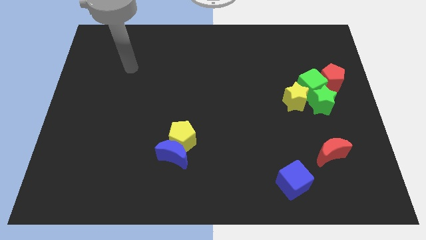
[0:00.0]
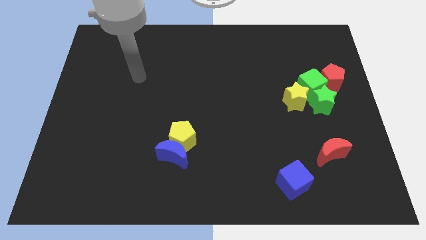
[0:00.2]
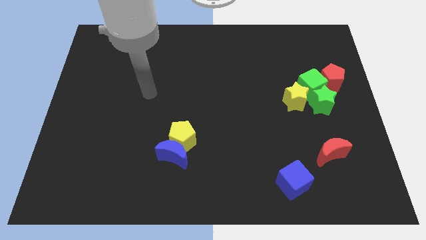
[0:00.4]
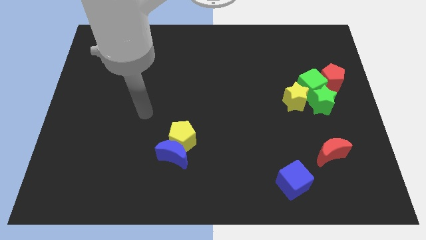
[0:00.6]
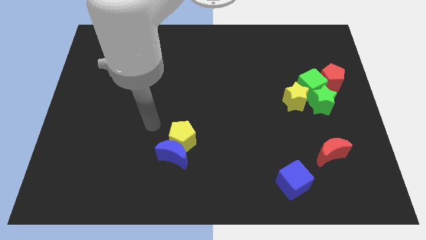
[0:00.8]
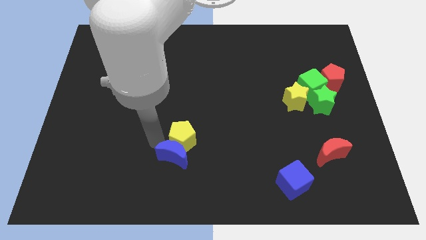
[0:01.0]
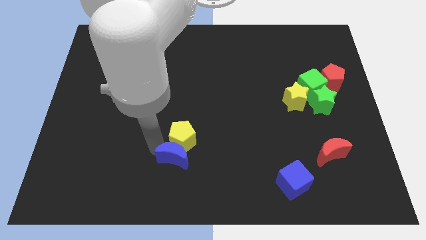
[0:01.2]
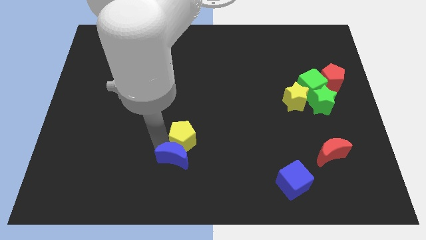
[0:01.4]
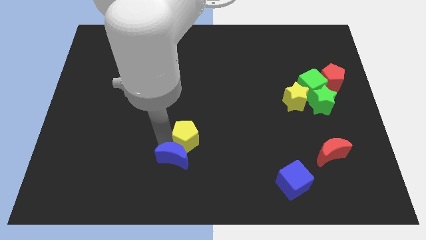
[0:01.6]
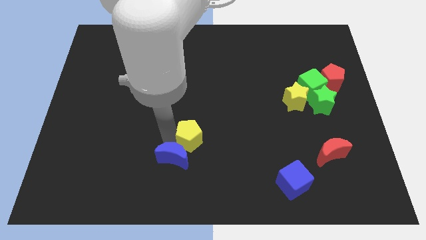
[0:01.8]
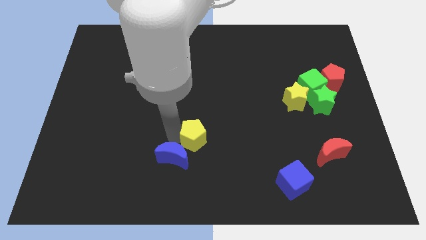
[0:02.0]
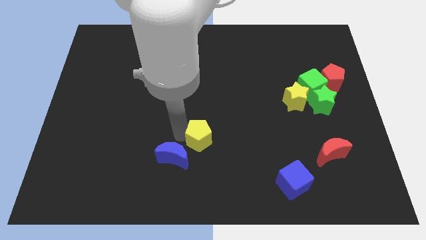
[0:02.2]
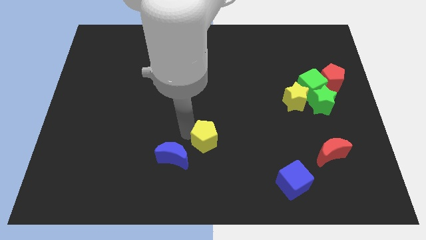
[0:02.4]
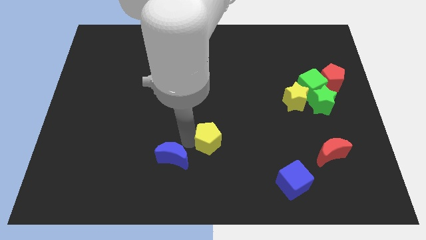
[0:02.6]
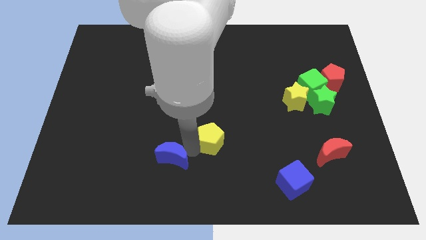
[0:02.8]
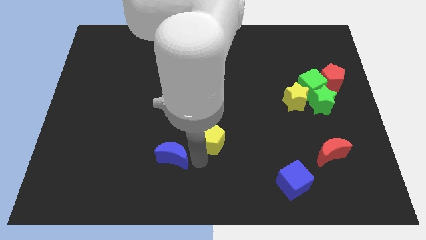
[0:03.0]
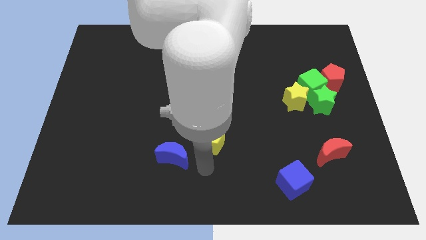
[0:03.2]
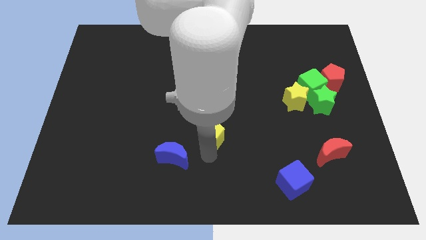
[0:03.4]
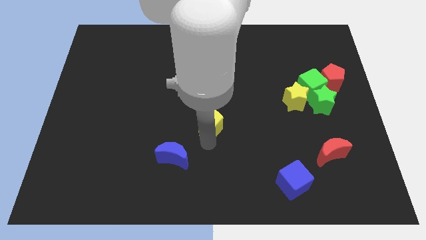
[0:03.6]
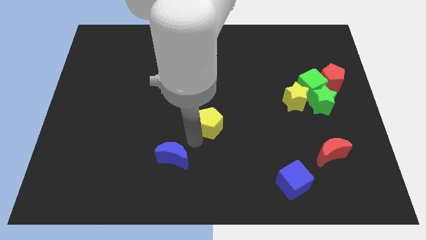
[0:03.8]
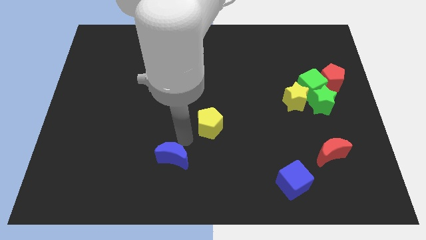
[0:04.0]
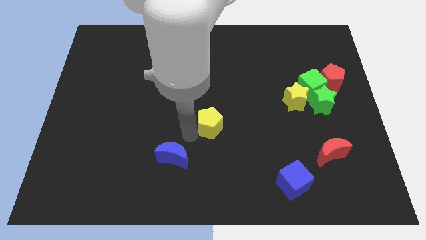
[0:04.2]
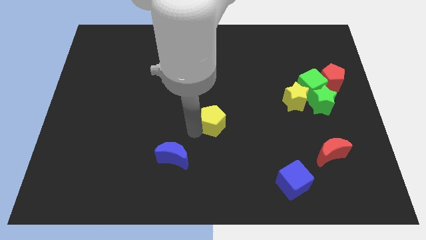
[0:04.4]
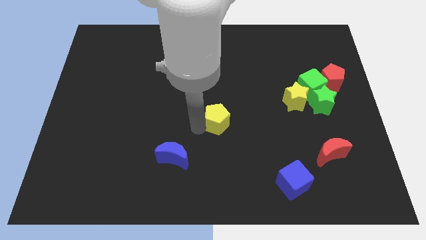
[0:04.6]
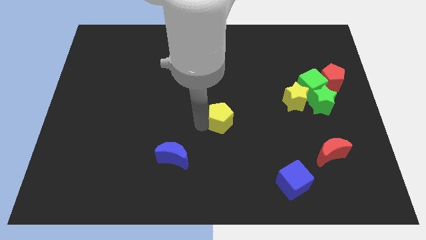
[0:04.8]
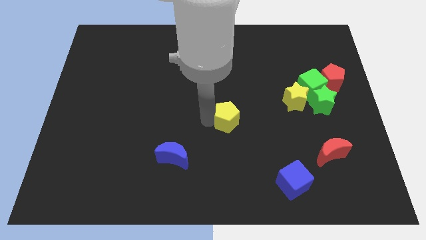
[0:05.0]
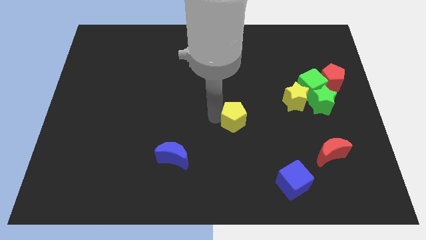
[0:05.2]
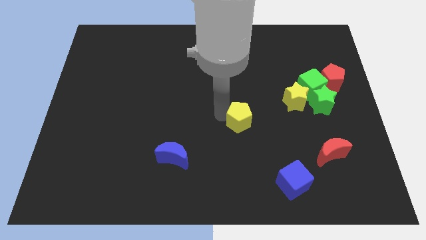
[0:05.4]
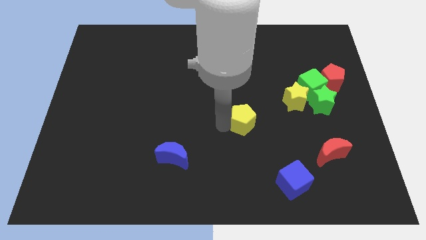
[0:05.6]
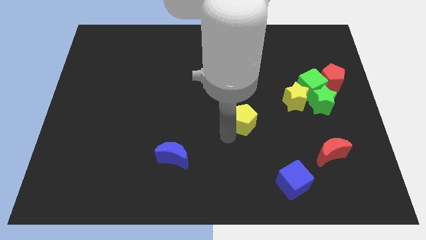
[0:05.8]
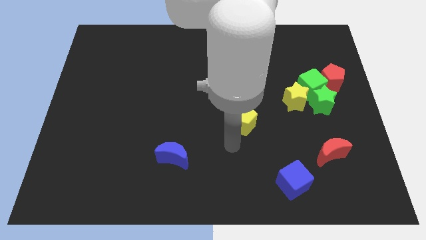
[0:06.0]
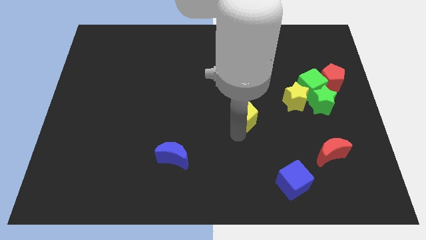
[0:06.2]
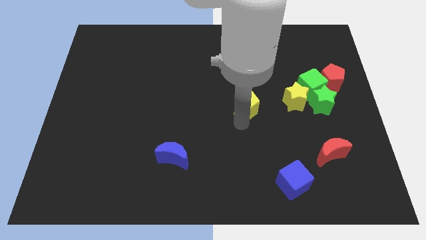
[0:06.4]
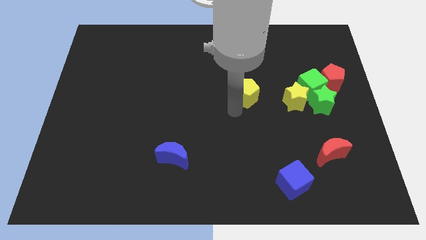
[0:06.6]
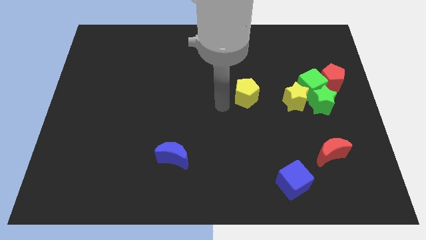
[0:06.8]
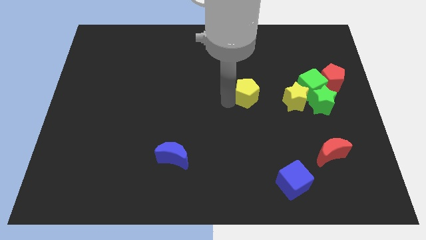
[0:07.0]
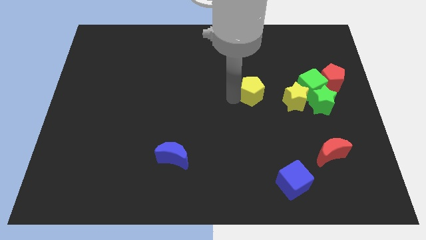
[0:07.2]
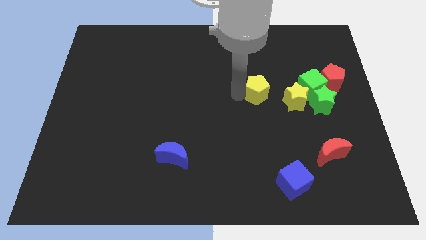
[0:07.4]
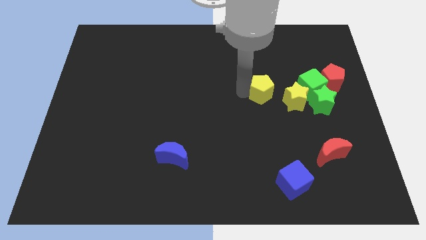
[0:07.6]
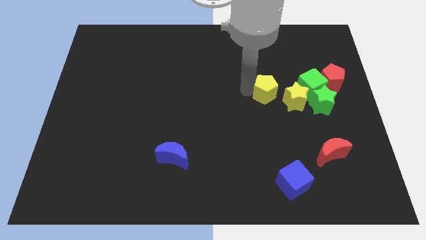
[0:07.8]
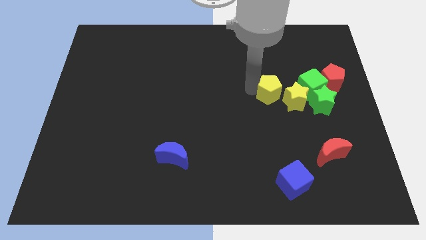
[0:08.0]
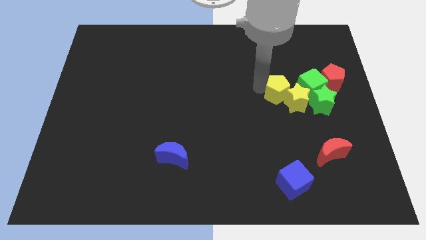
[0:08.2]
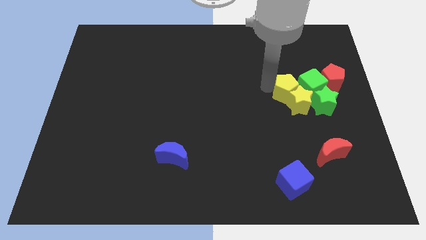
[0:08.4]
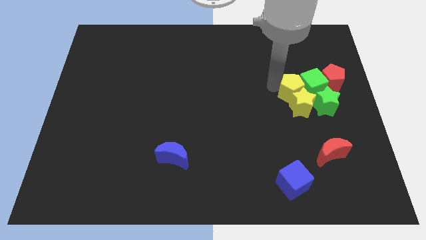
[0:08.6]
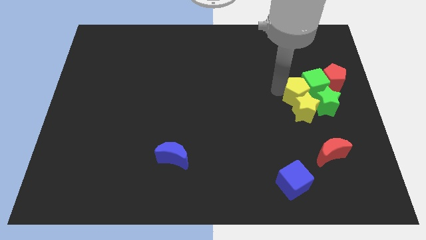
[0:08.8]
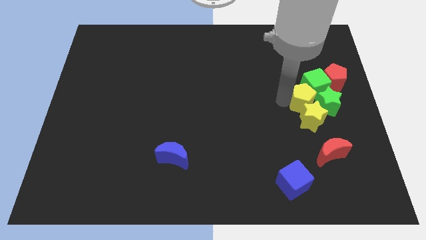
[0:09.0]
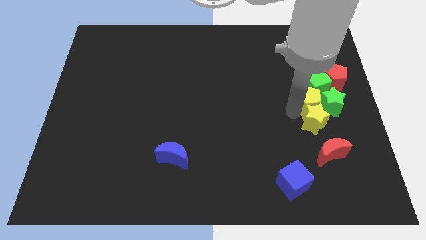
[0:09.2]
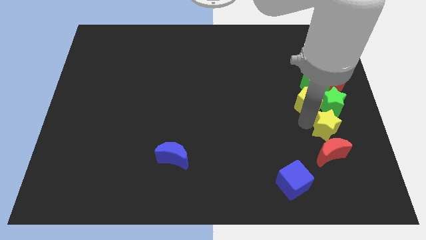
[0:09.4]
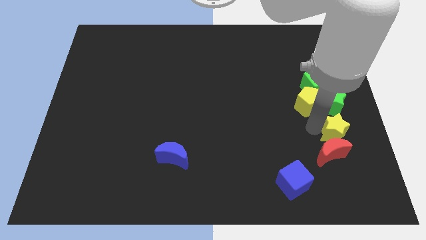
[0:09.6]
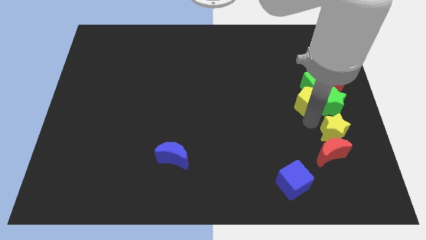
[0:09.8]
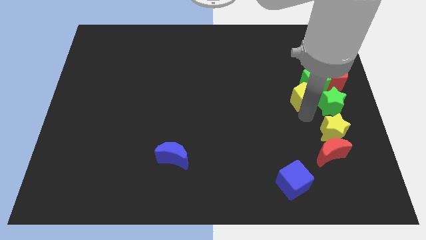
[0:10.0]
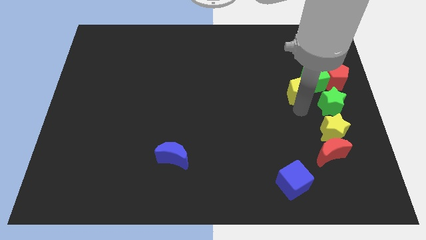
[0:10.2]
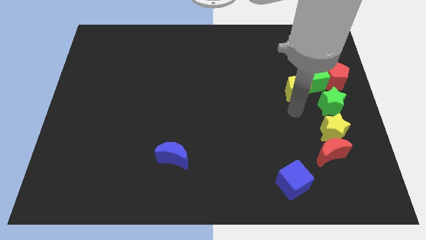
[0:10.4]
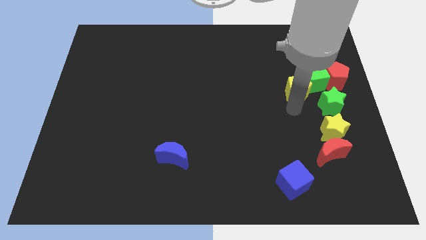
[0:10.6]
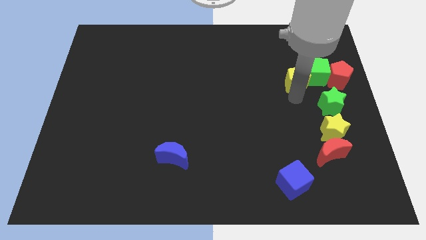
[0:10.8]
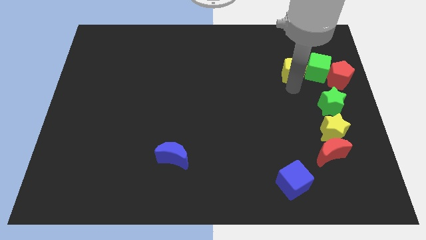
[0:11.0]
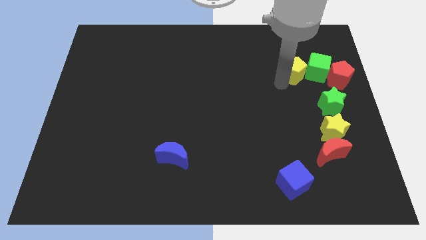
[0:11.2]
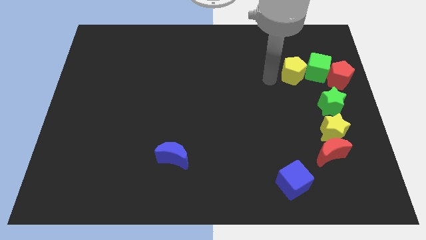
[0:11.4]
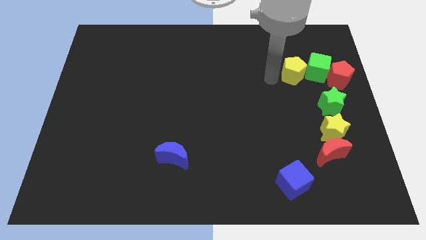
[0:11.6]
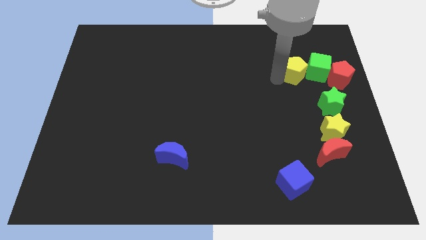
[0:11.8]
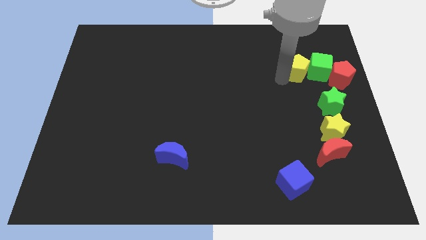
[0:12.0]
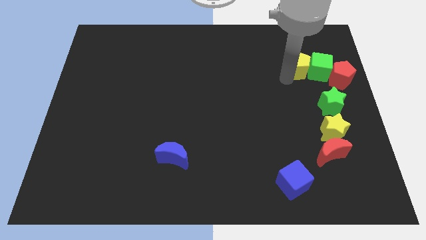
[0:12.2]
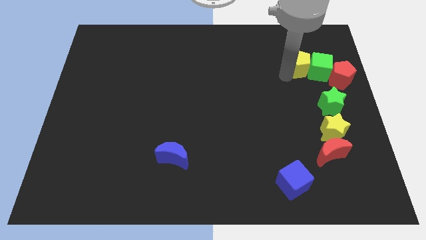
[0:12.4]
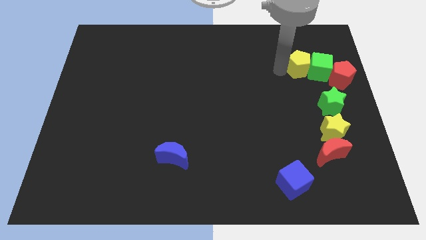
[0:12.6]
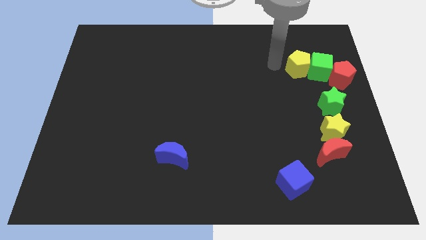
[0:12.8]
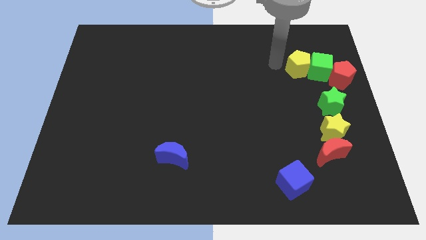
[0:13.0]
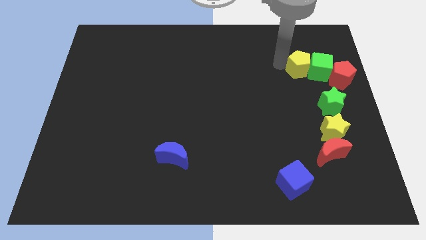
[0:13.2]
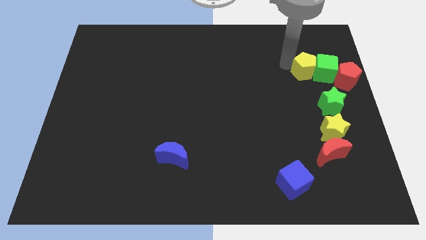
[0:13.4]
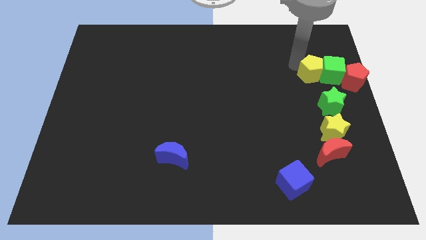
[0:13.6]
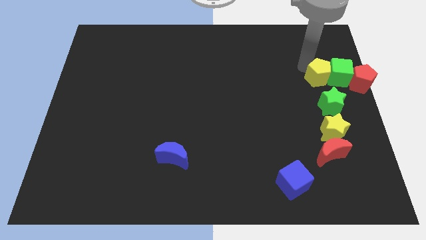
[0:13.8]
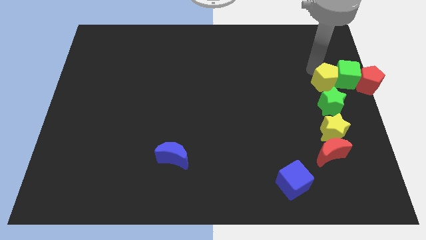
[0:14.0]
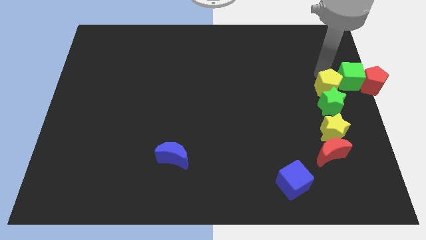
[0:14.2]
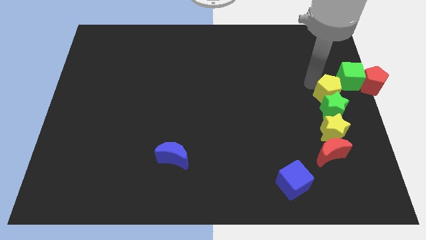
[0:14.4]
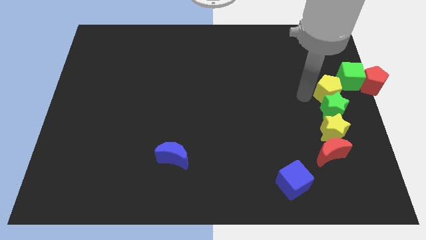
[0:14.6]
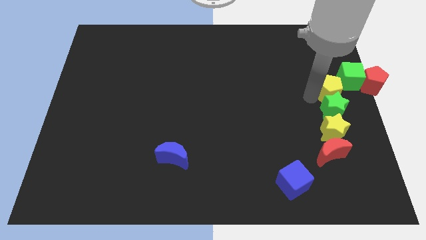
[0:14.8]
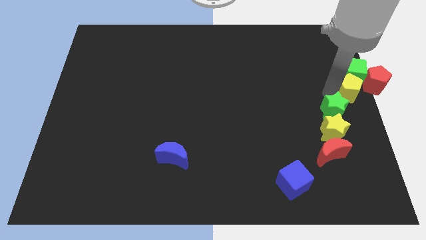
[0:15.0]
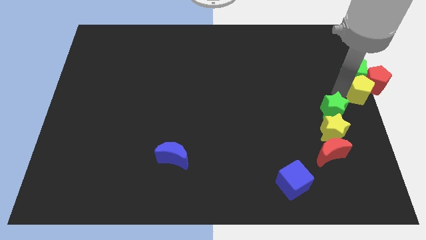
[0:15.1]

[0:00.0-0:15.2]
put the yellow pentagon close to the red pentagon
